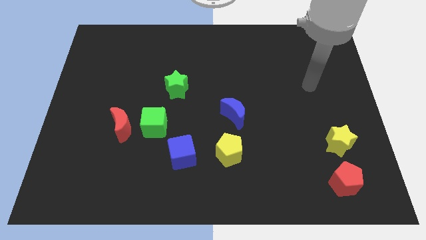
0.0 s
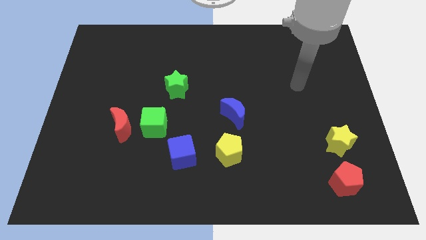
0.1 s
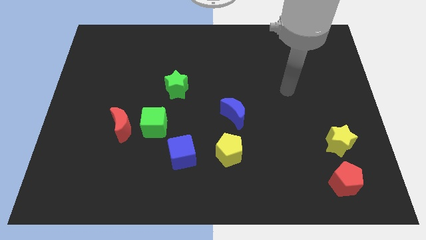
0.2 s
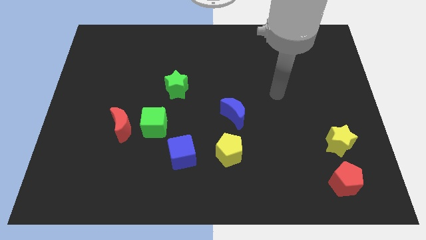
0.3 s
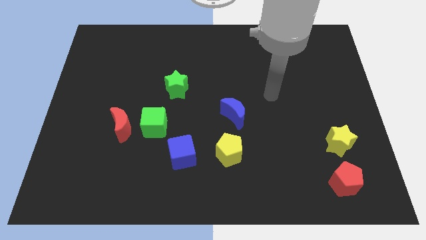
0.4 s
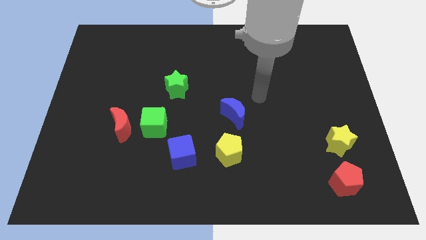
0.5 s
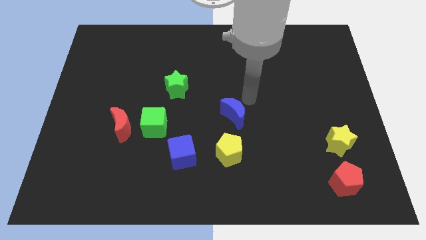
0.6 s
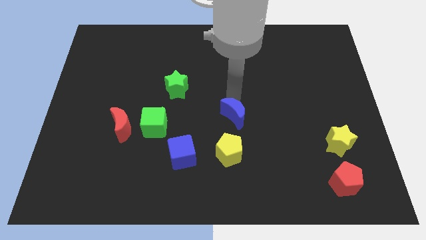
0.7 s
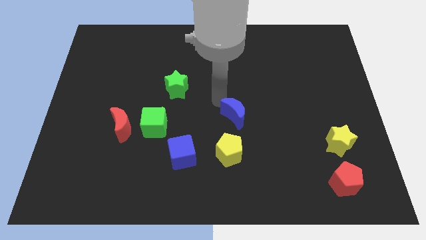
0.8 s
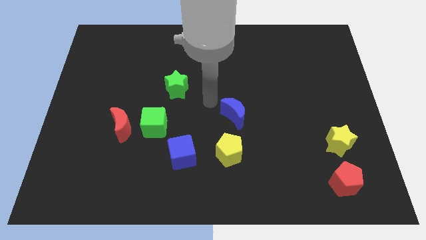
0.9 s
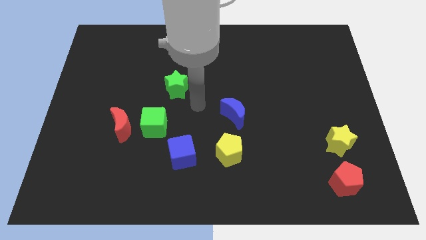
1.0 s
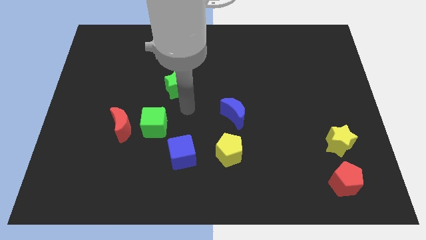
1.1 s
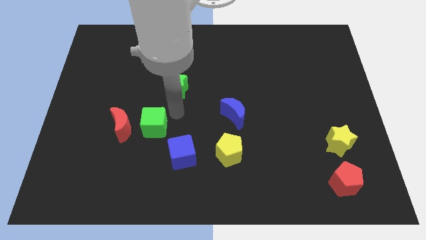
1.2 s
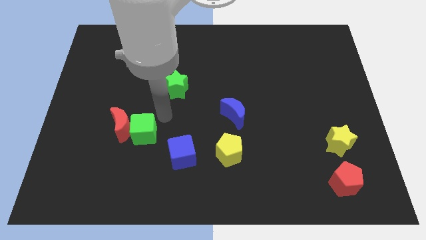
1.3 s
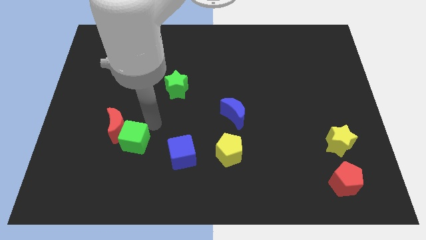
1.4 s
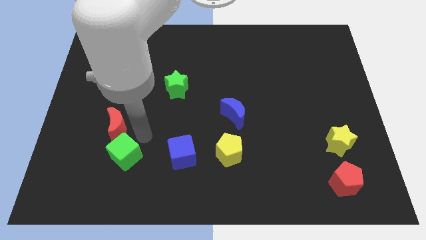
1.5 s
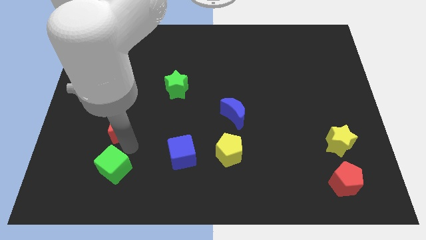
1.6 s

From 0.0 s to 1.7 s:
separate the red moon from the green cube

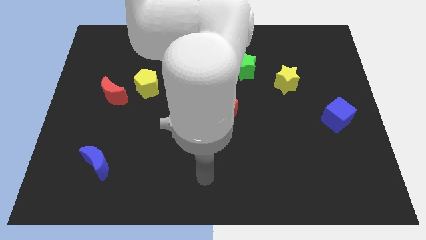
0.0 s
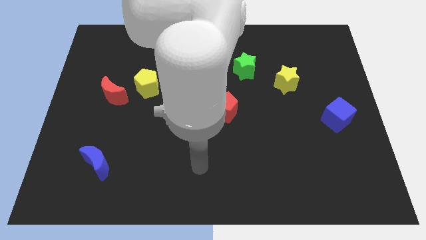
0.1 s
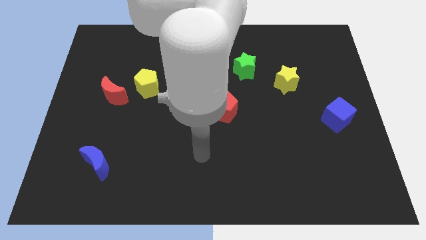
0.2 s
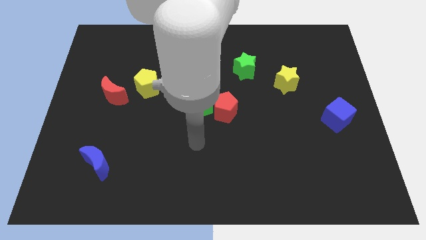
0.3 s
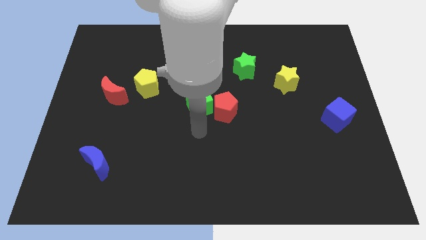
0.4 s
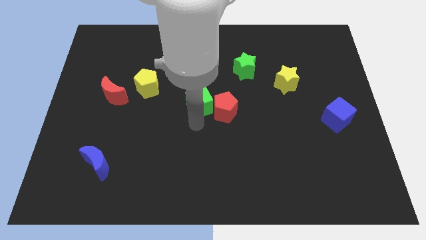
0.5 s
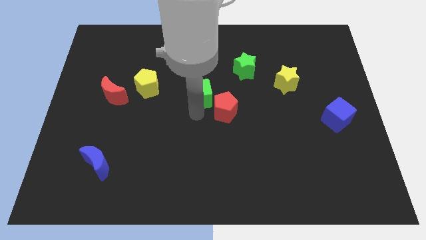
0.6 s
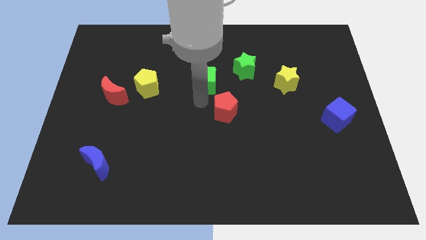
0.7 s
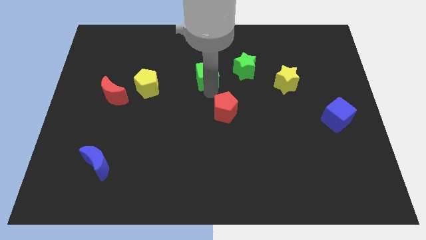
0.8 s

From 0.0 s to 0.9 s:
pull the red pentagon apart from the green cube

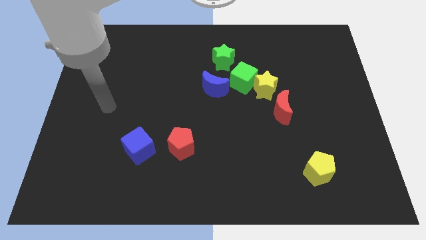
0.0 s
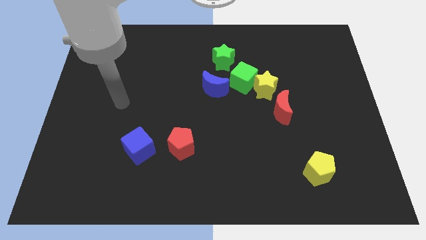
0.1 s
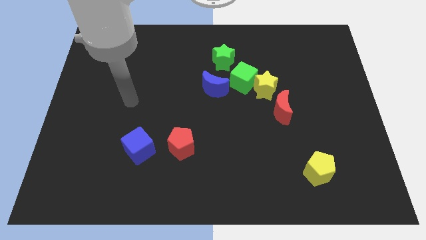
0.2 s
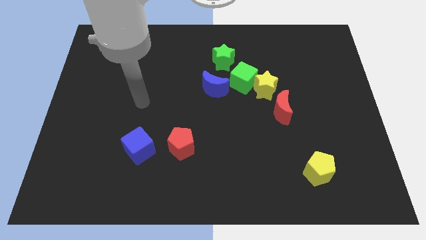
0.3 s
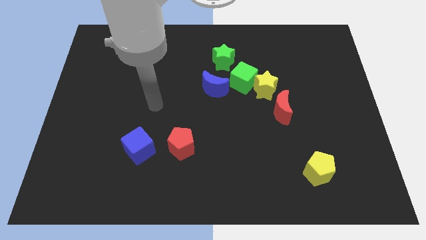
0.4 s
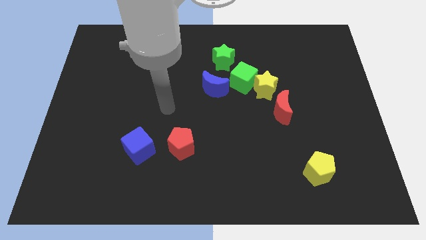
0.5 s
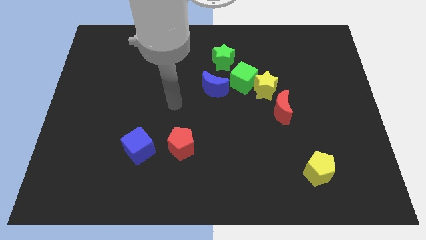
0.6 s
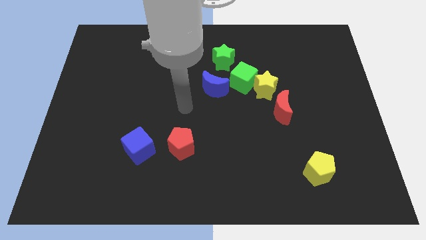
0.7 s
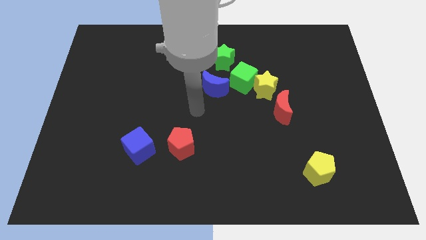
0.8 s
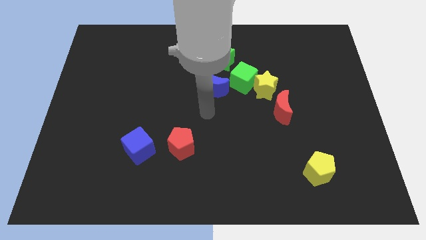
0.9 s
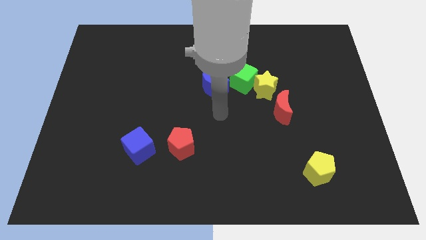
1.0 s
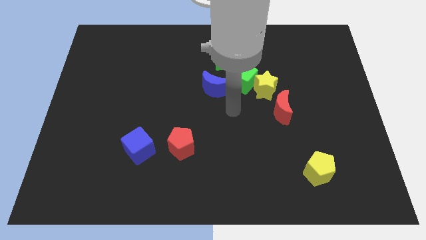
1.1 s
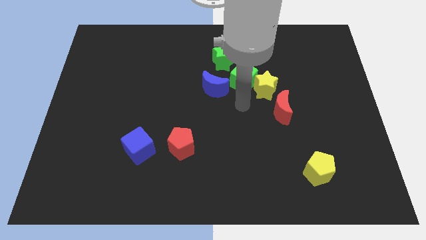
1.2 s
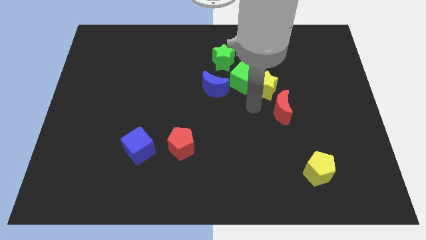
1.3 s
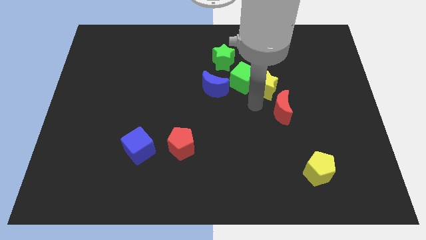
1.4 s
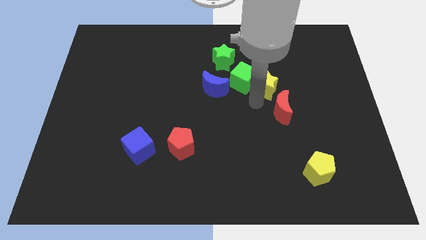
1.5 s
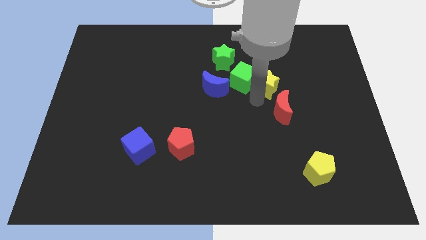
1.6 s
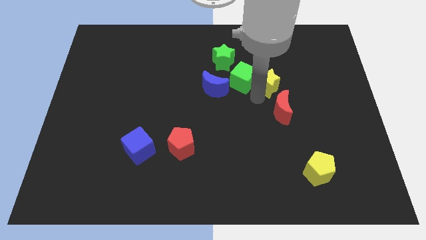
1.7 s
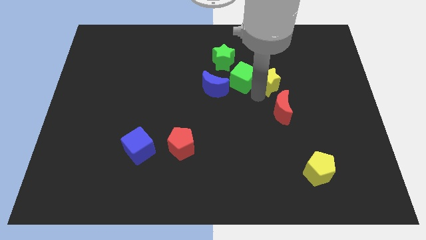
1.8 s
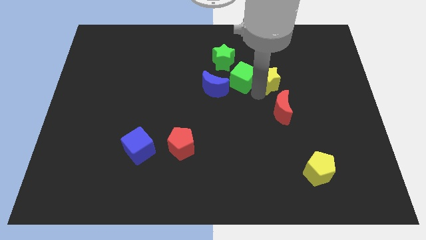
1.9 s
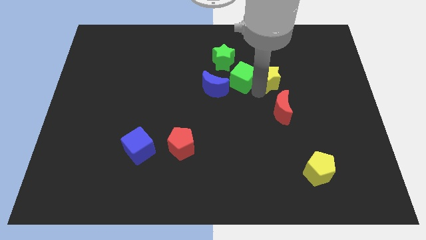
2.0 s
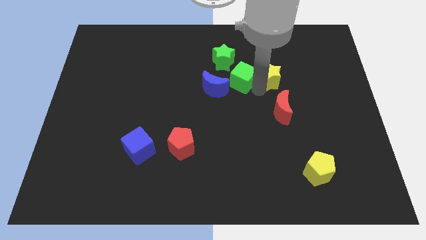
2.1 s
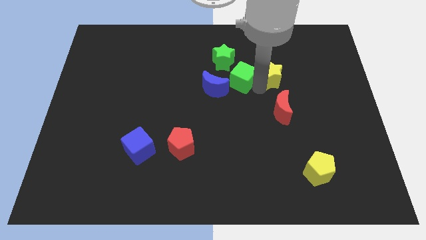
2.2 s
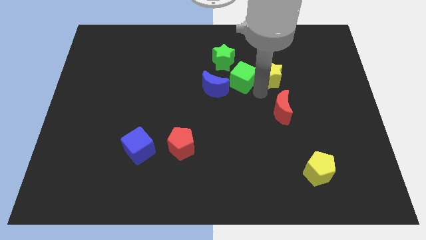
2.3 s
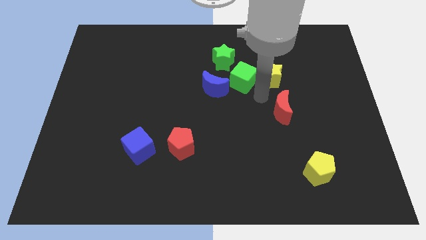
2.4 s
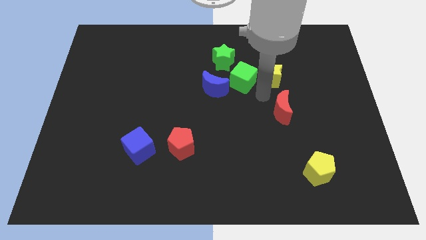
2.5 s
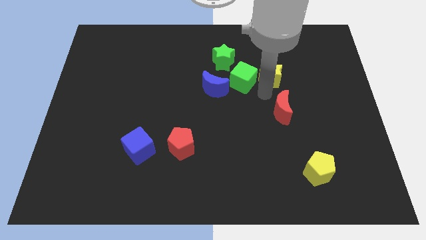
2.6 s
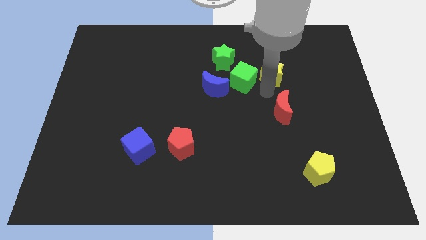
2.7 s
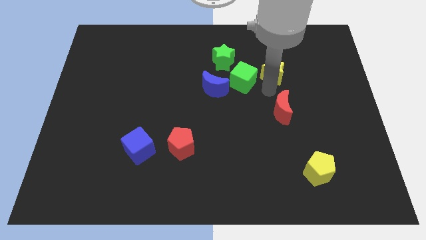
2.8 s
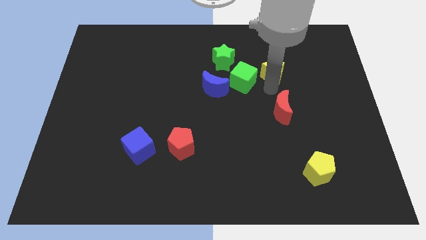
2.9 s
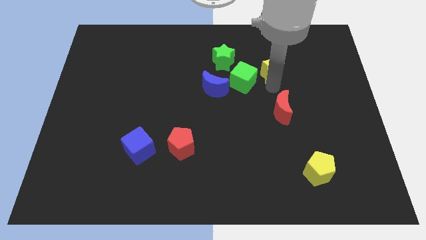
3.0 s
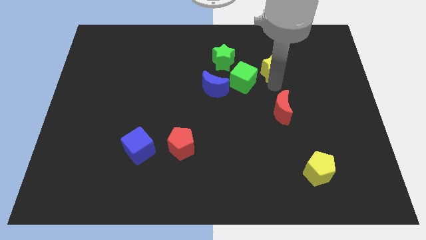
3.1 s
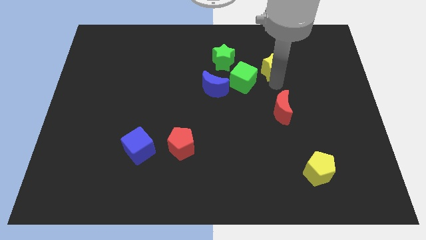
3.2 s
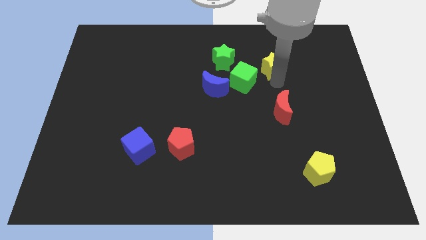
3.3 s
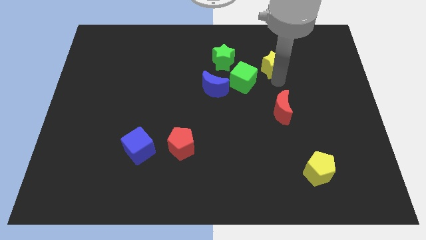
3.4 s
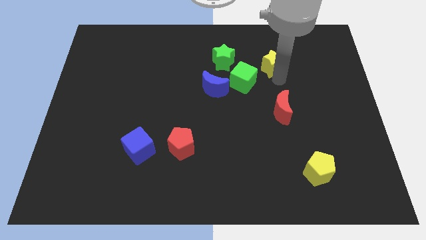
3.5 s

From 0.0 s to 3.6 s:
separate the yellow star from the green cube and red moon

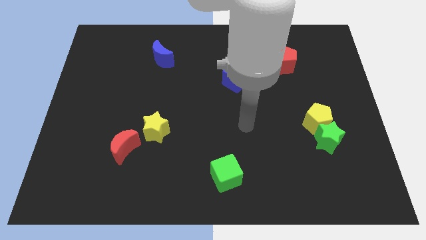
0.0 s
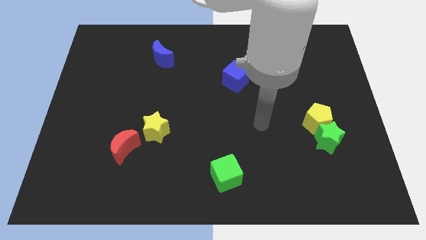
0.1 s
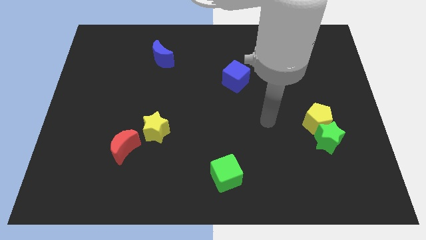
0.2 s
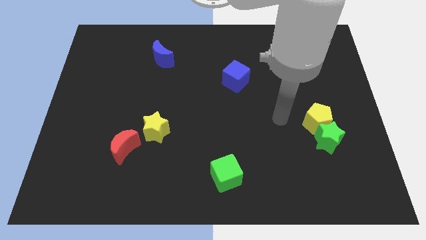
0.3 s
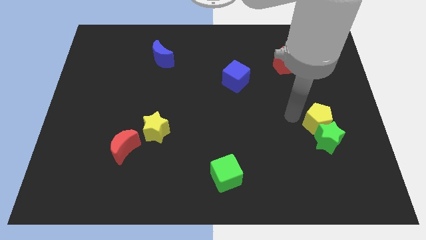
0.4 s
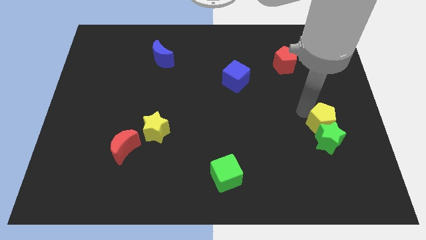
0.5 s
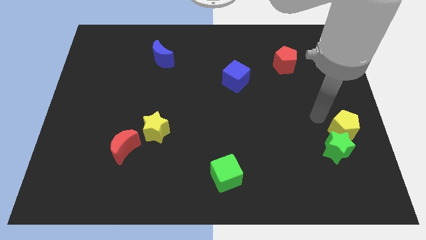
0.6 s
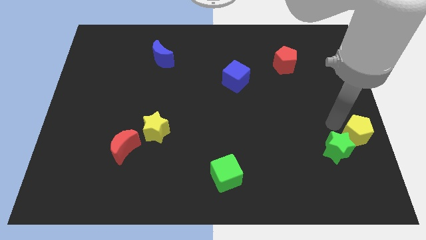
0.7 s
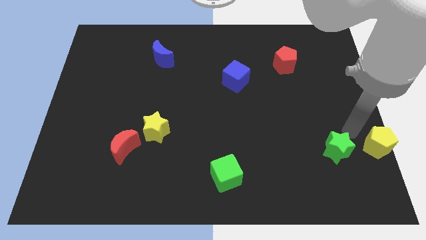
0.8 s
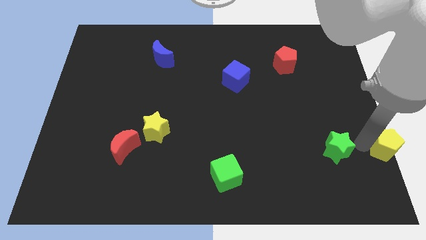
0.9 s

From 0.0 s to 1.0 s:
pull the green star apart from the yellow pentagon

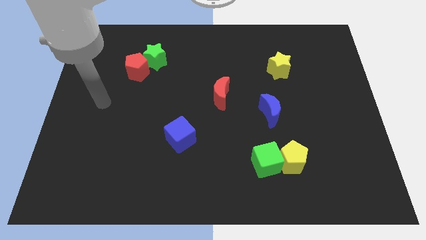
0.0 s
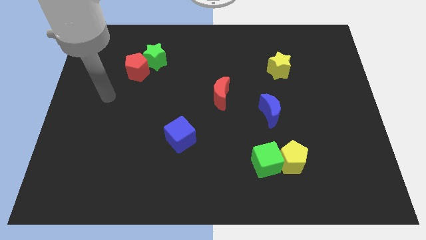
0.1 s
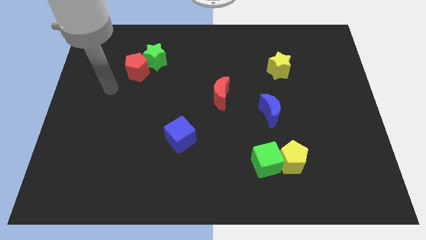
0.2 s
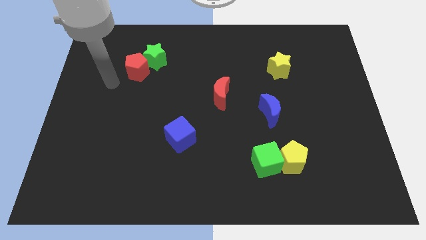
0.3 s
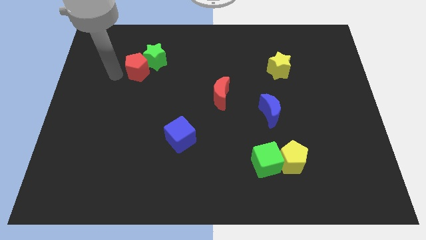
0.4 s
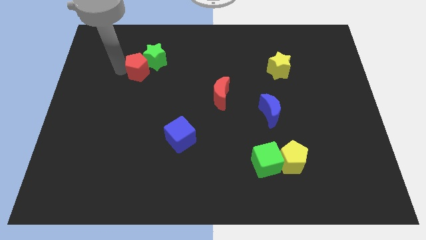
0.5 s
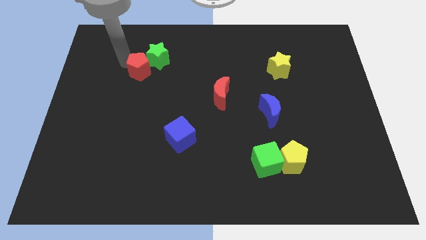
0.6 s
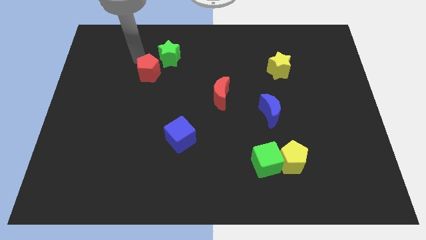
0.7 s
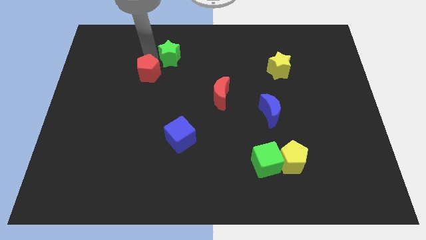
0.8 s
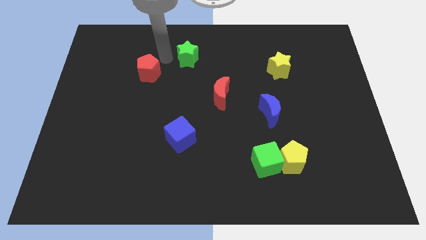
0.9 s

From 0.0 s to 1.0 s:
separate the red pentagon from the green star

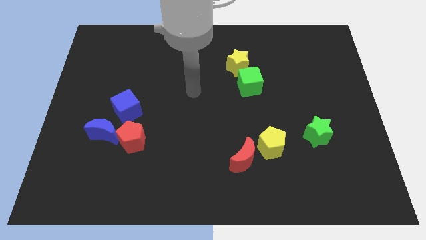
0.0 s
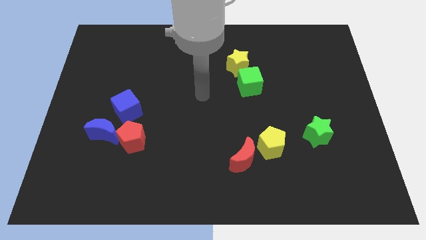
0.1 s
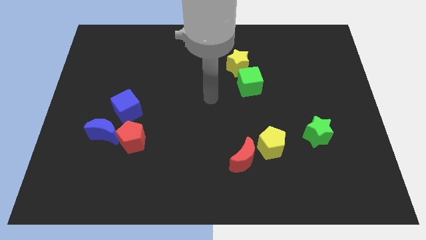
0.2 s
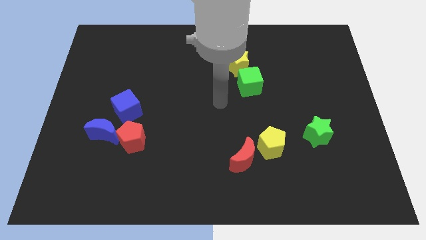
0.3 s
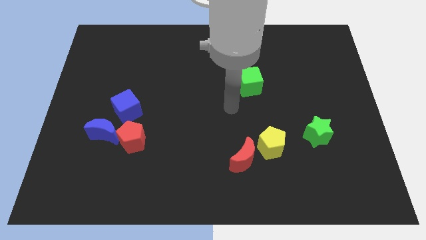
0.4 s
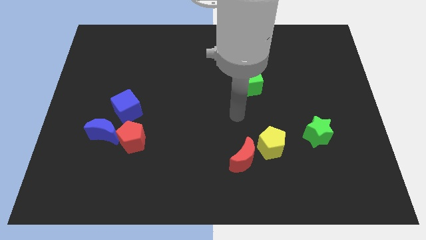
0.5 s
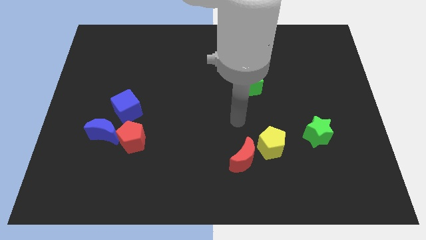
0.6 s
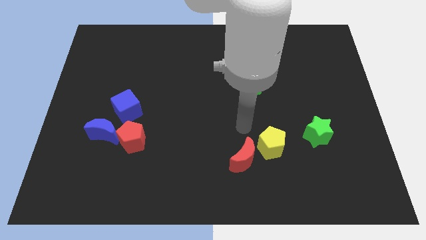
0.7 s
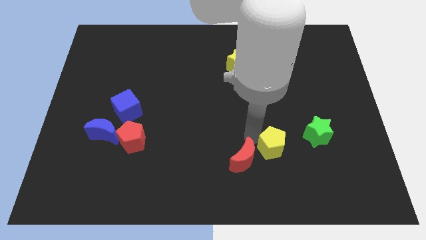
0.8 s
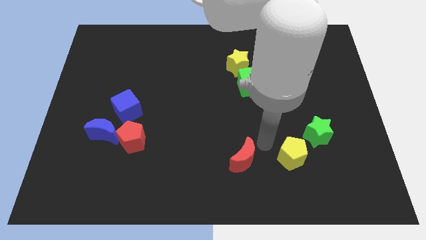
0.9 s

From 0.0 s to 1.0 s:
move the red moon away from the yellow pentagon
